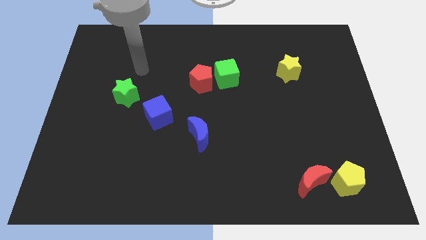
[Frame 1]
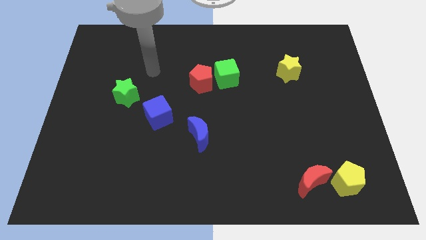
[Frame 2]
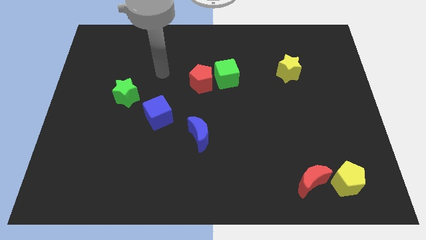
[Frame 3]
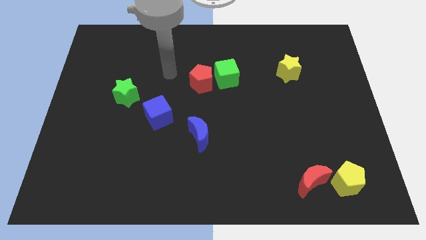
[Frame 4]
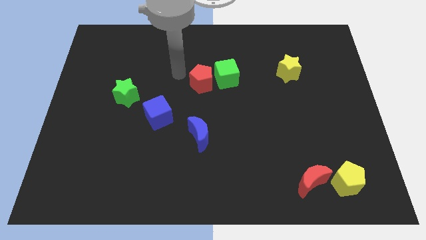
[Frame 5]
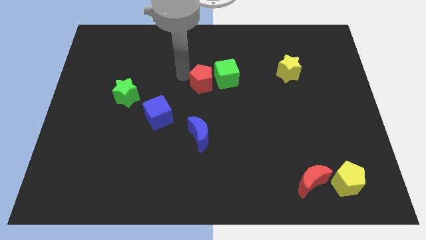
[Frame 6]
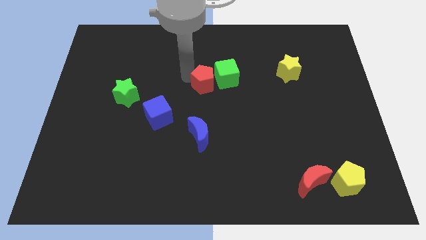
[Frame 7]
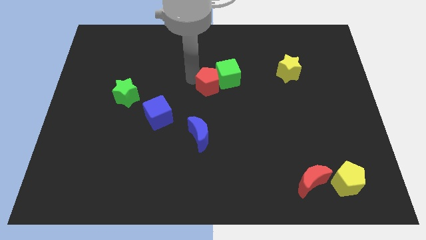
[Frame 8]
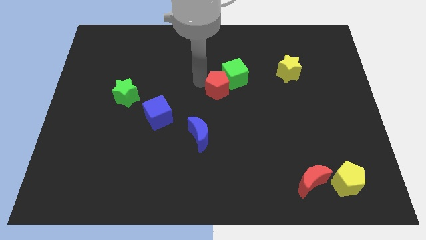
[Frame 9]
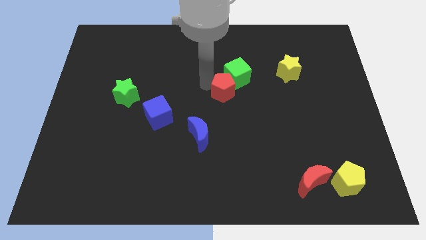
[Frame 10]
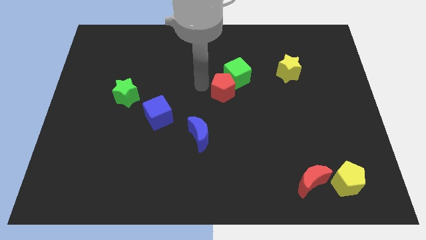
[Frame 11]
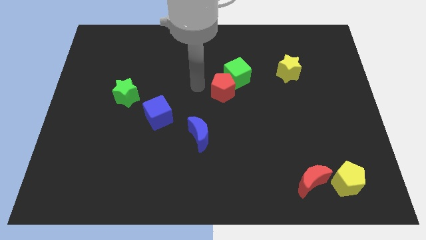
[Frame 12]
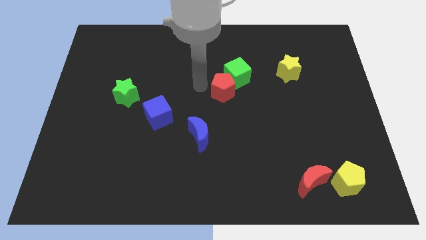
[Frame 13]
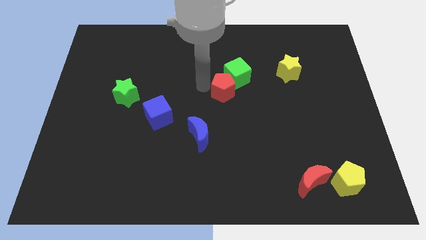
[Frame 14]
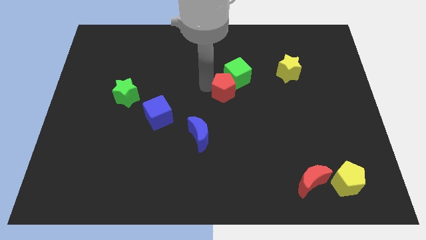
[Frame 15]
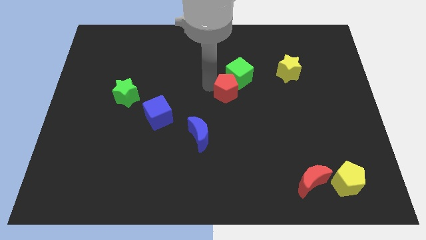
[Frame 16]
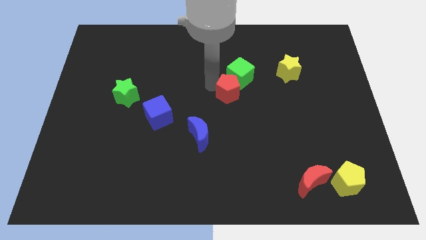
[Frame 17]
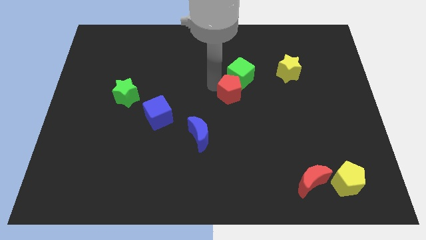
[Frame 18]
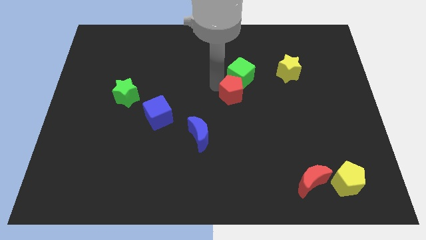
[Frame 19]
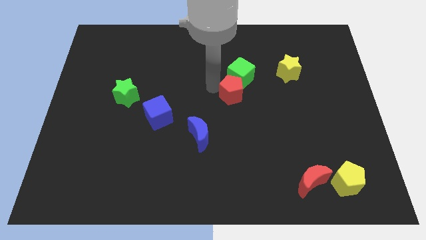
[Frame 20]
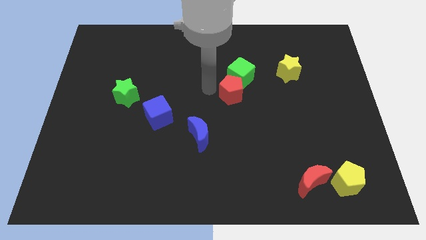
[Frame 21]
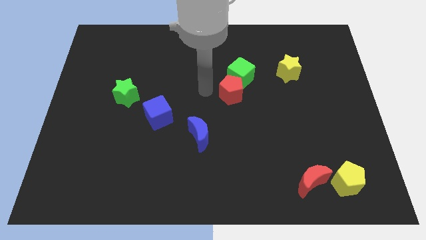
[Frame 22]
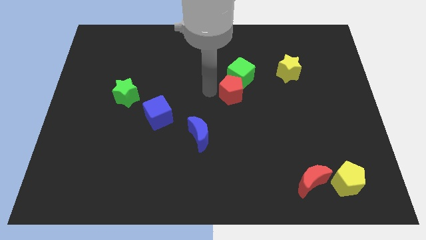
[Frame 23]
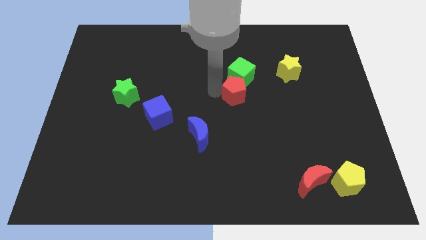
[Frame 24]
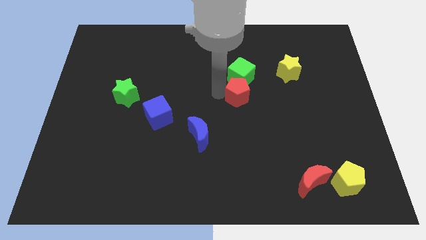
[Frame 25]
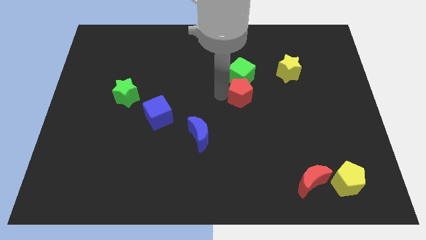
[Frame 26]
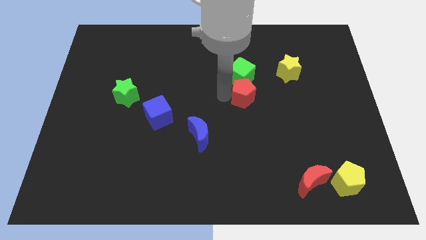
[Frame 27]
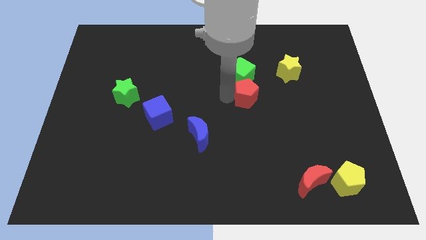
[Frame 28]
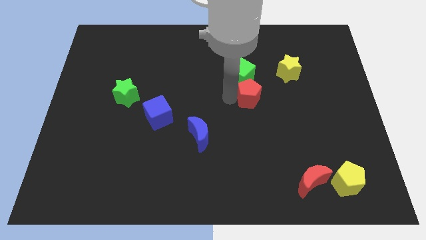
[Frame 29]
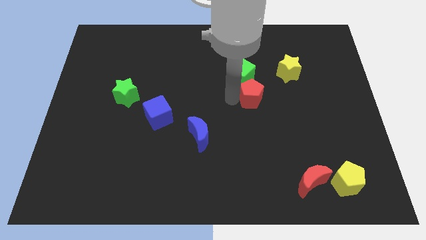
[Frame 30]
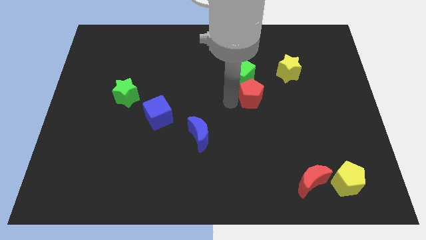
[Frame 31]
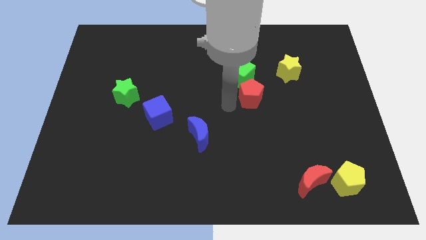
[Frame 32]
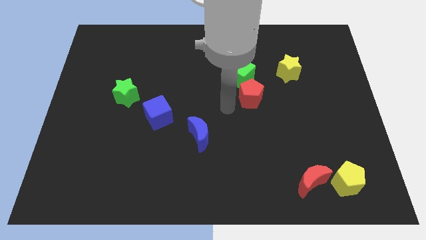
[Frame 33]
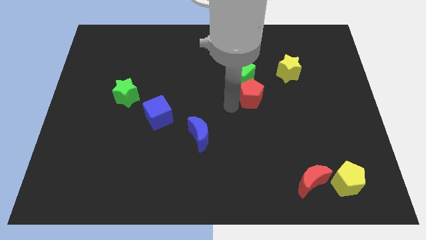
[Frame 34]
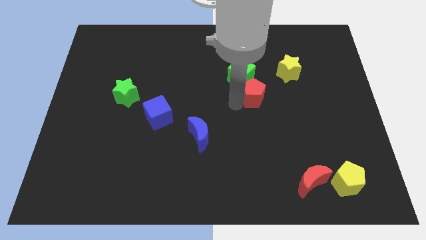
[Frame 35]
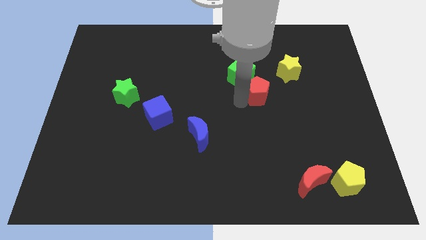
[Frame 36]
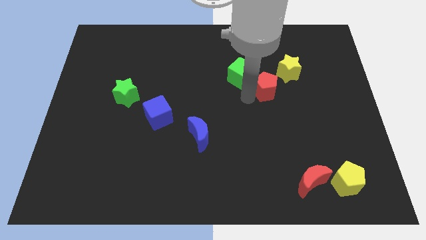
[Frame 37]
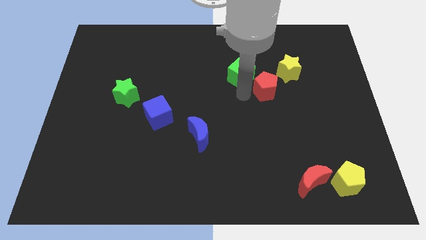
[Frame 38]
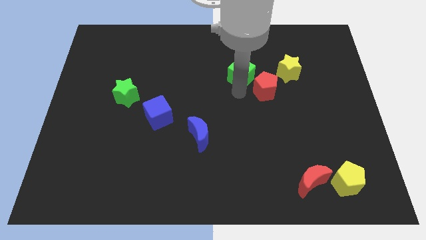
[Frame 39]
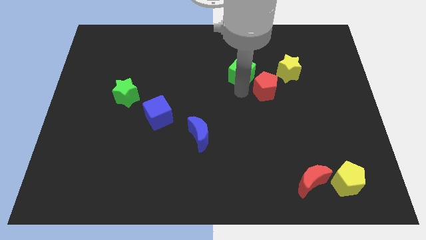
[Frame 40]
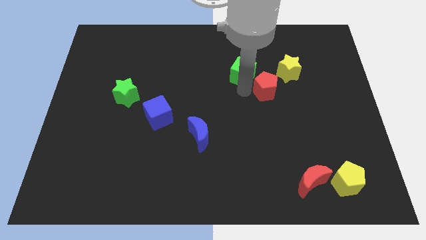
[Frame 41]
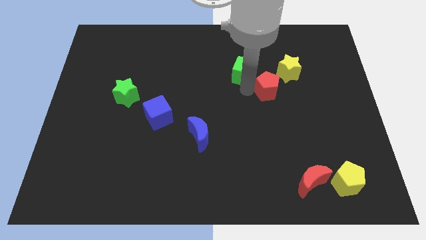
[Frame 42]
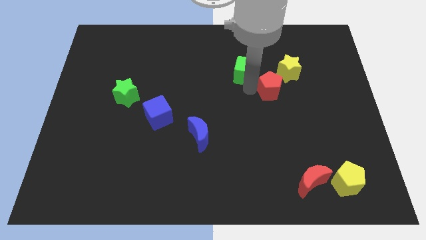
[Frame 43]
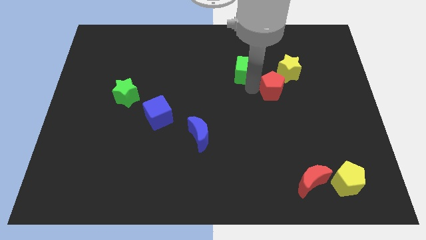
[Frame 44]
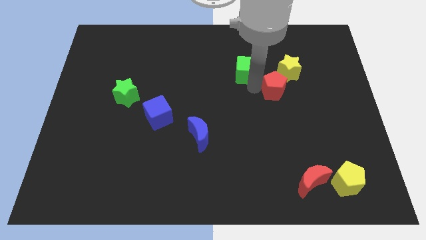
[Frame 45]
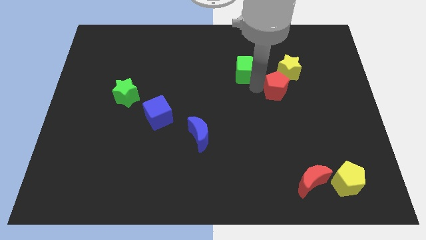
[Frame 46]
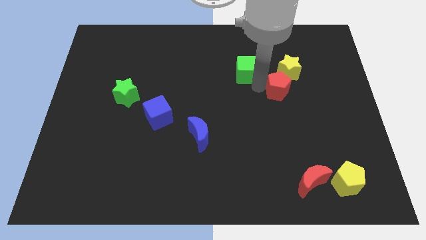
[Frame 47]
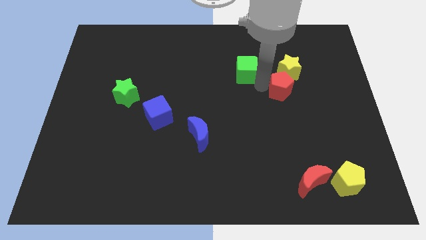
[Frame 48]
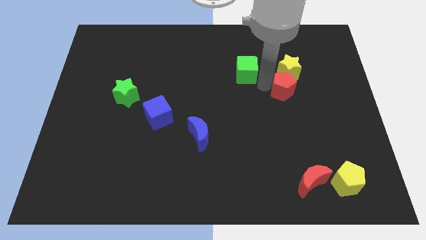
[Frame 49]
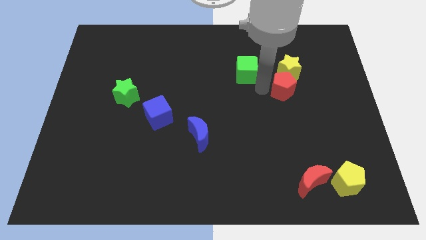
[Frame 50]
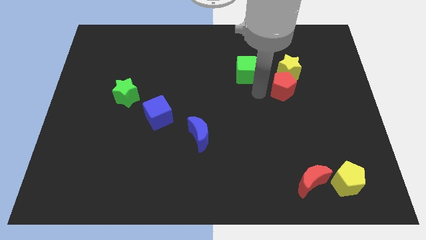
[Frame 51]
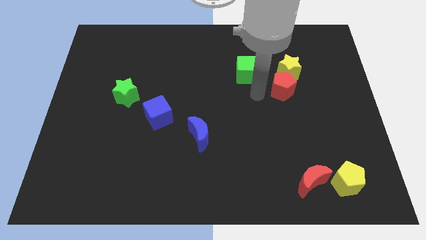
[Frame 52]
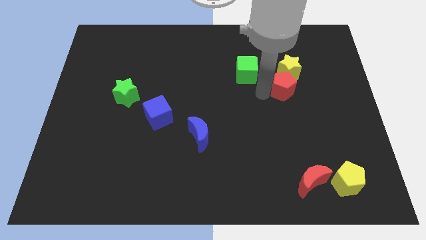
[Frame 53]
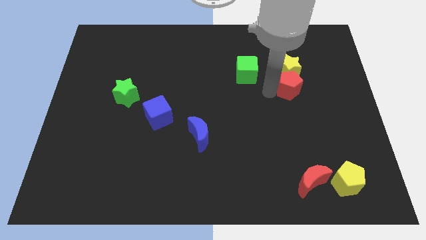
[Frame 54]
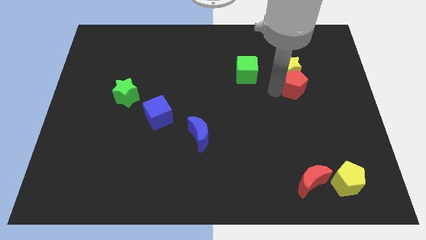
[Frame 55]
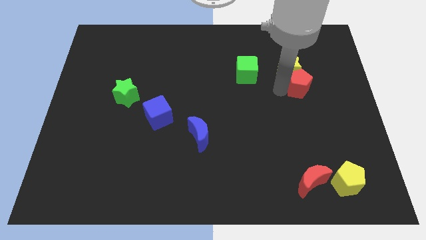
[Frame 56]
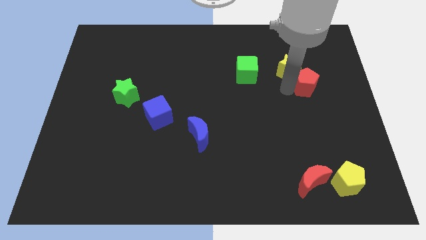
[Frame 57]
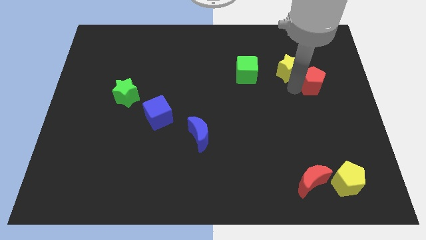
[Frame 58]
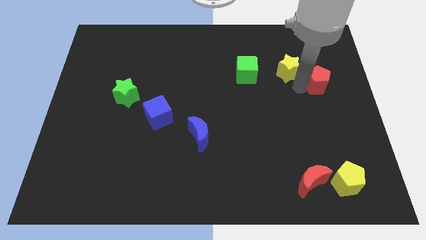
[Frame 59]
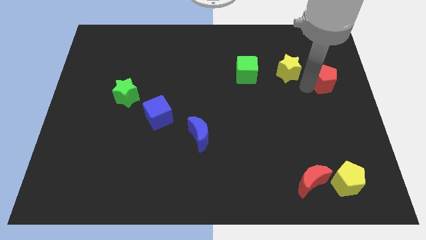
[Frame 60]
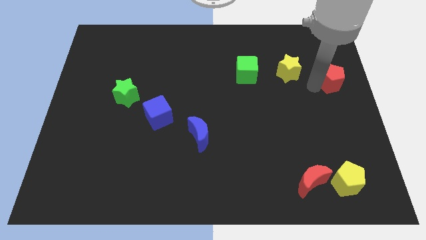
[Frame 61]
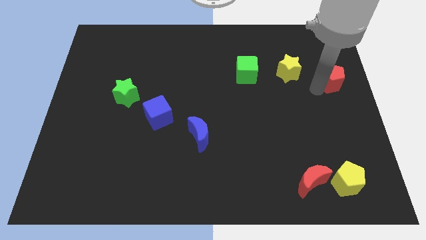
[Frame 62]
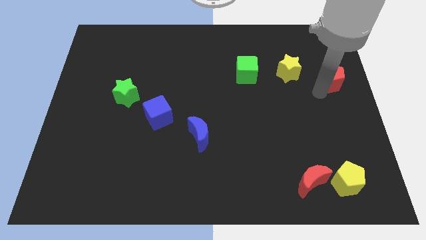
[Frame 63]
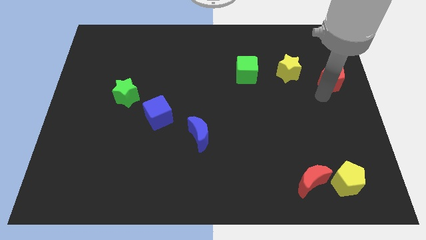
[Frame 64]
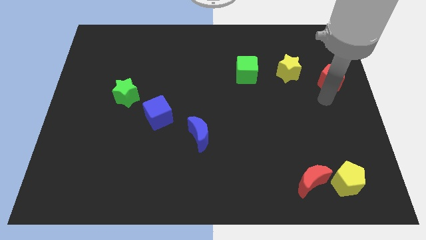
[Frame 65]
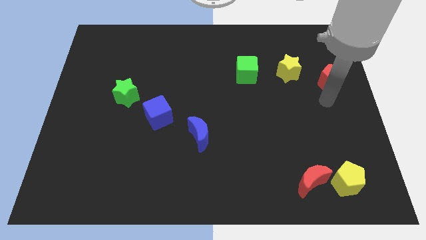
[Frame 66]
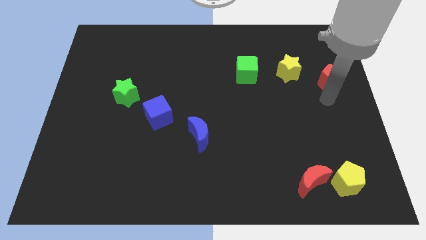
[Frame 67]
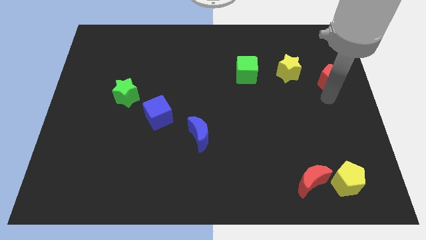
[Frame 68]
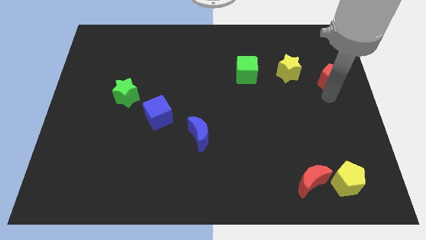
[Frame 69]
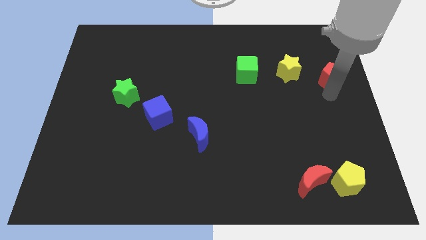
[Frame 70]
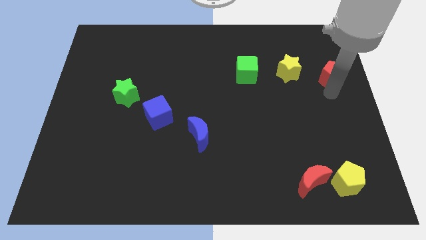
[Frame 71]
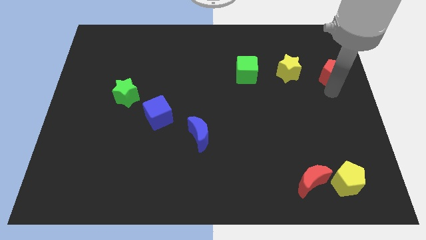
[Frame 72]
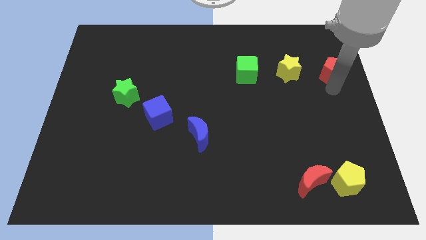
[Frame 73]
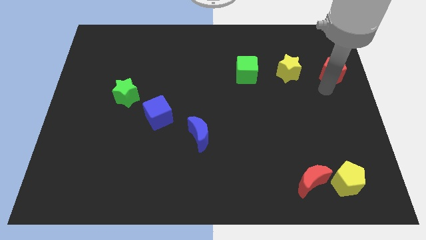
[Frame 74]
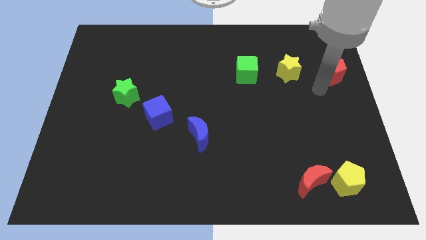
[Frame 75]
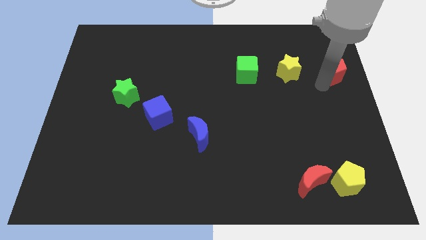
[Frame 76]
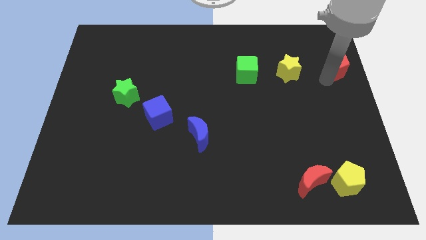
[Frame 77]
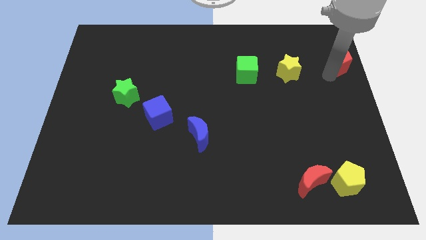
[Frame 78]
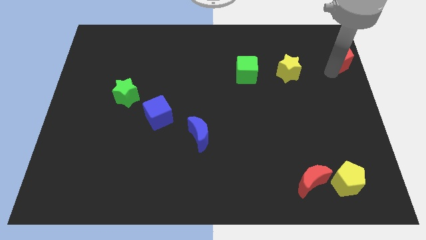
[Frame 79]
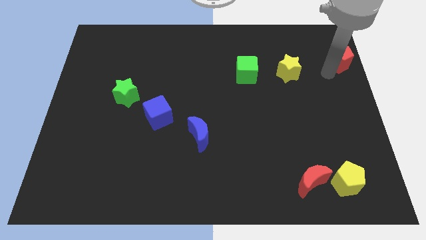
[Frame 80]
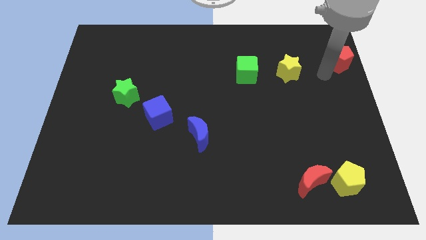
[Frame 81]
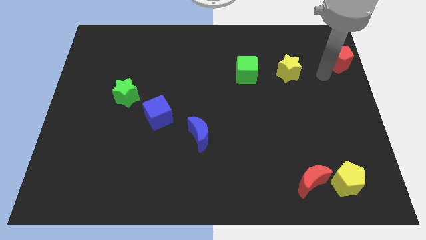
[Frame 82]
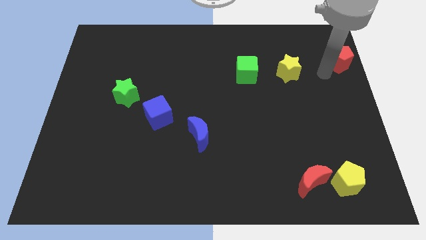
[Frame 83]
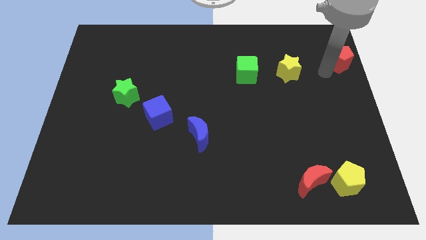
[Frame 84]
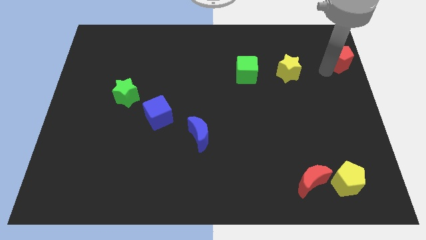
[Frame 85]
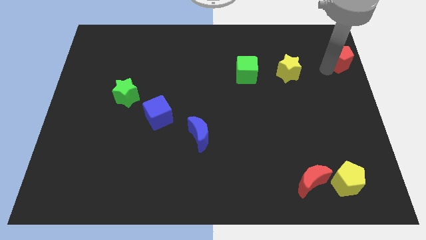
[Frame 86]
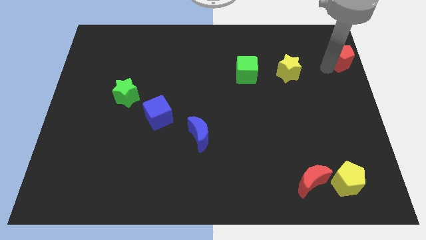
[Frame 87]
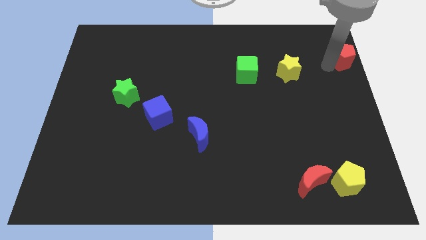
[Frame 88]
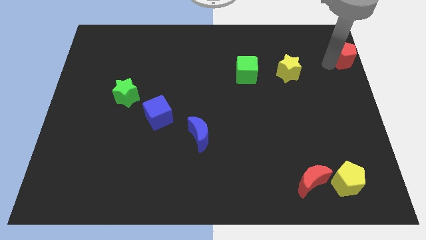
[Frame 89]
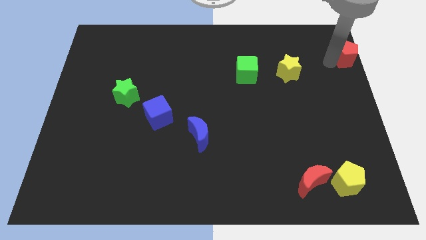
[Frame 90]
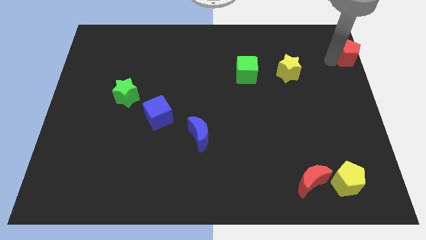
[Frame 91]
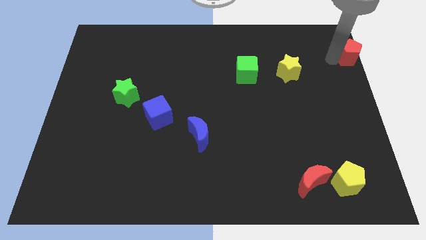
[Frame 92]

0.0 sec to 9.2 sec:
move the red pentagon to the upper right corner
